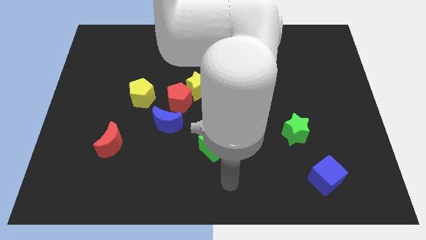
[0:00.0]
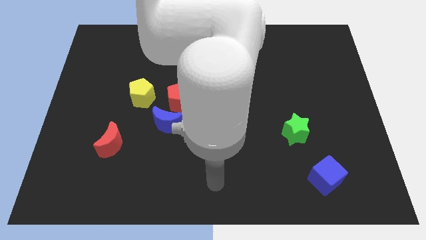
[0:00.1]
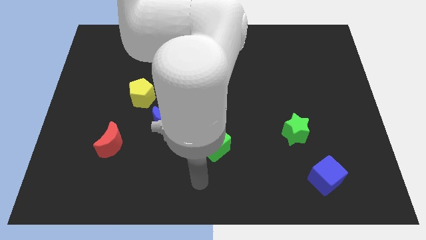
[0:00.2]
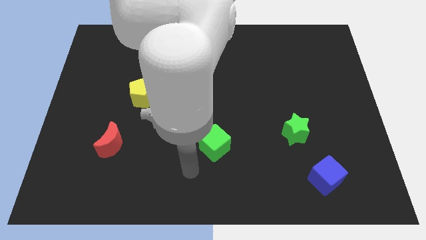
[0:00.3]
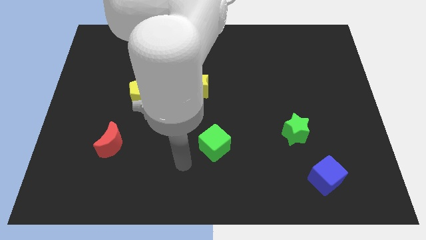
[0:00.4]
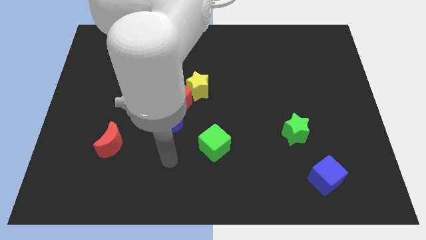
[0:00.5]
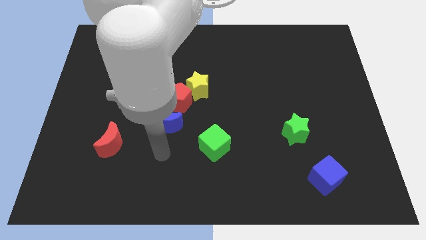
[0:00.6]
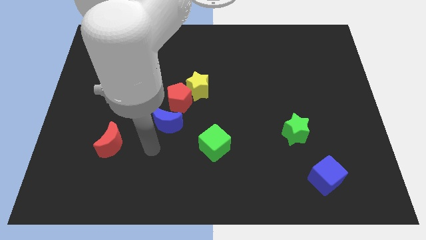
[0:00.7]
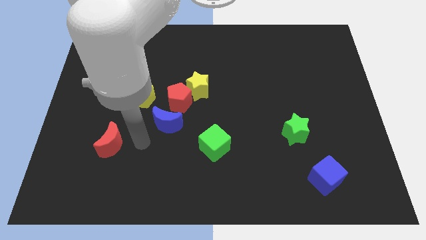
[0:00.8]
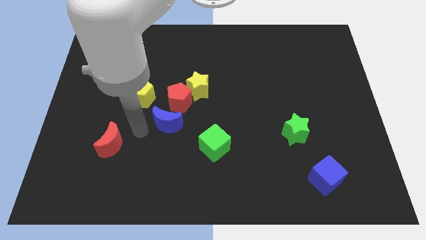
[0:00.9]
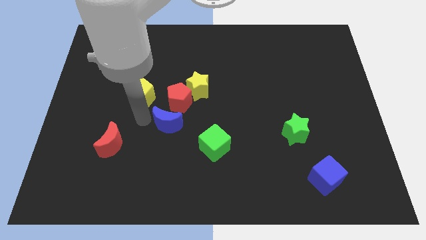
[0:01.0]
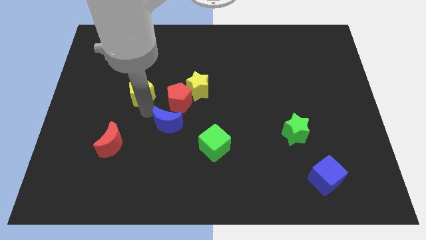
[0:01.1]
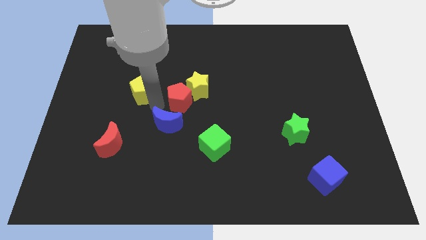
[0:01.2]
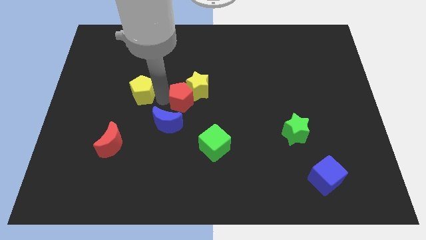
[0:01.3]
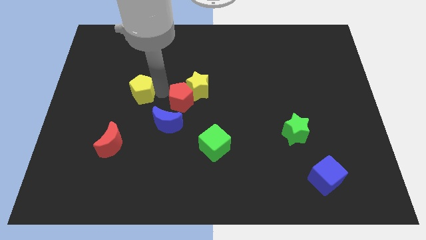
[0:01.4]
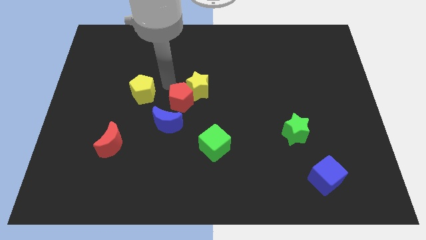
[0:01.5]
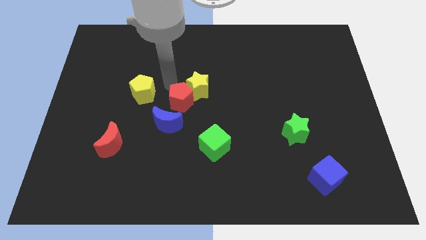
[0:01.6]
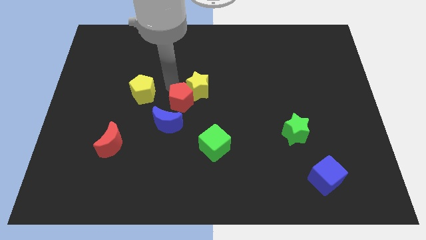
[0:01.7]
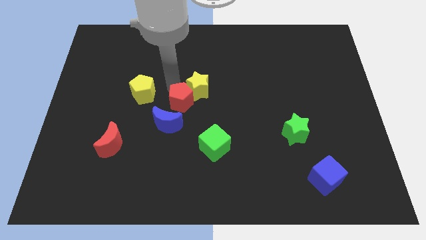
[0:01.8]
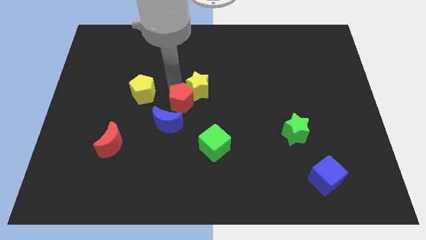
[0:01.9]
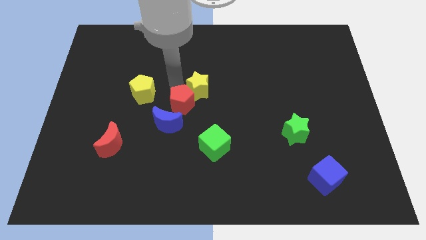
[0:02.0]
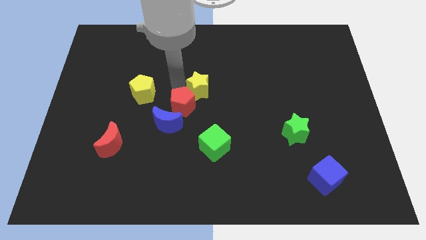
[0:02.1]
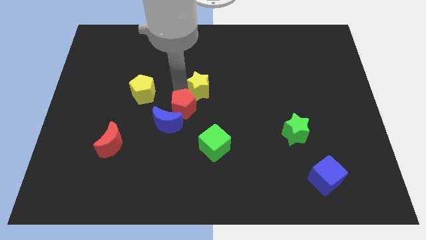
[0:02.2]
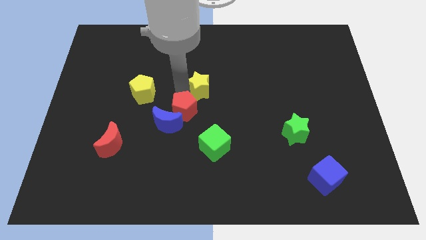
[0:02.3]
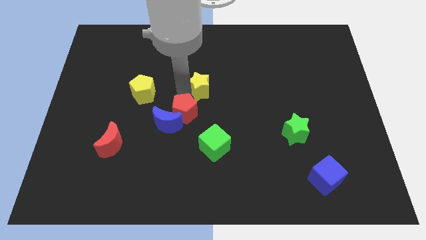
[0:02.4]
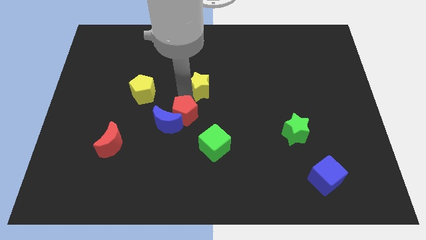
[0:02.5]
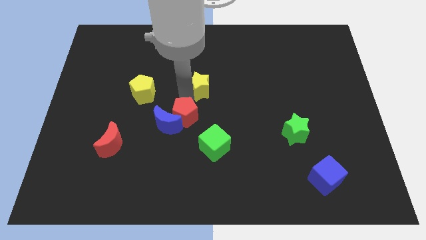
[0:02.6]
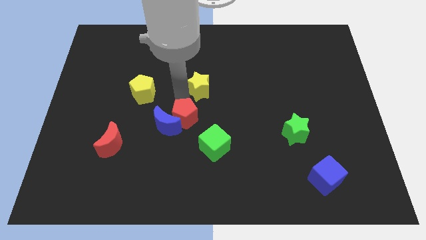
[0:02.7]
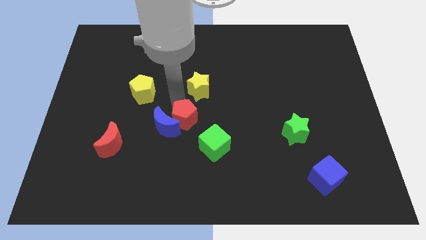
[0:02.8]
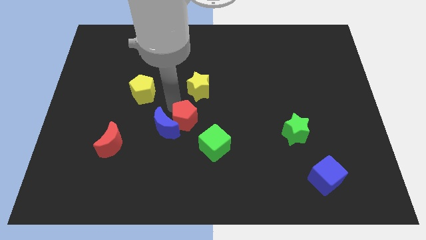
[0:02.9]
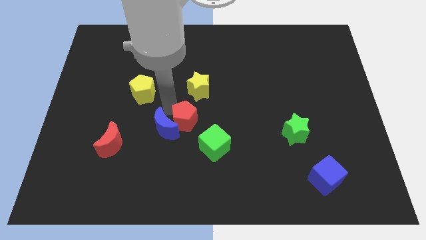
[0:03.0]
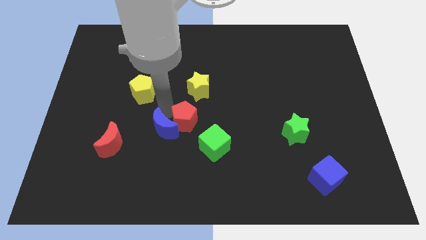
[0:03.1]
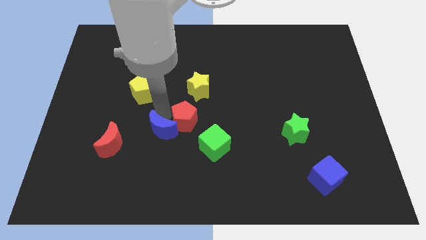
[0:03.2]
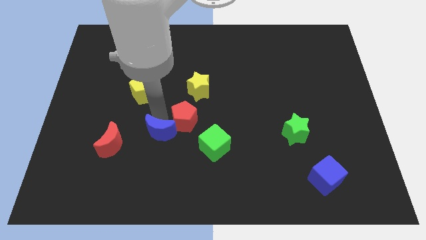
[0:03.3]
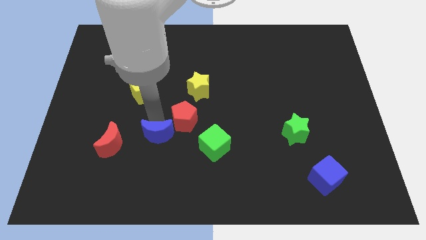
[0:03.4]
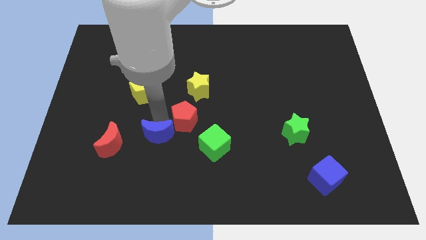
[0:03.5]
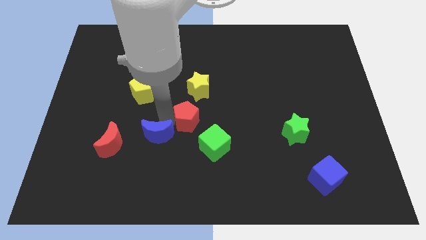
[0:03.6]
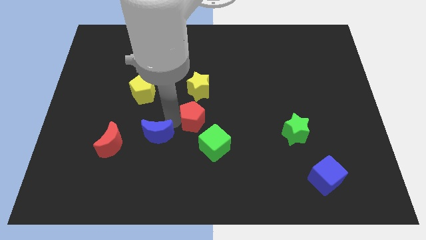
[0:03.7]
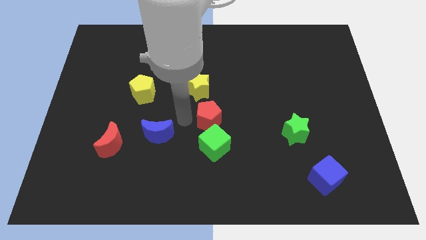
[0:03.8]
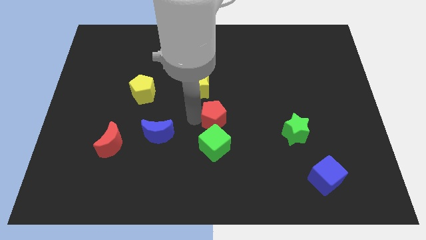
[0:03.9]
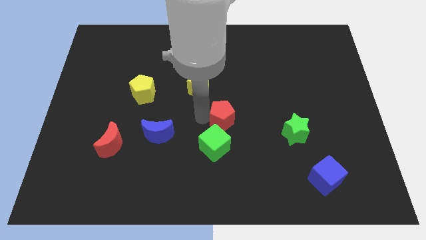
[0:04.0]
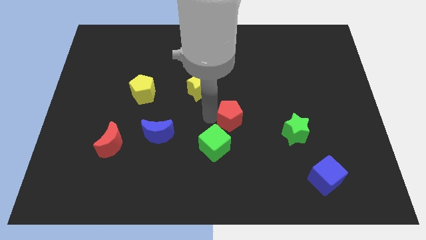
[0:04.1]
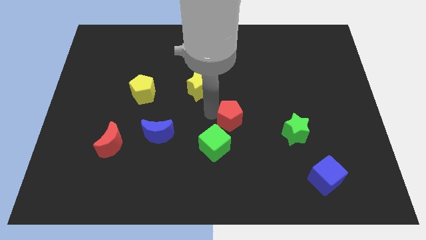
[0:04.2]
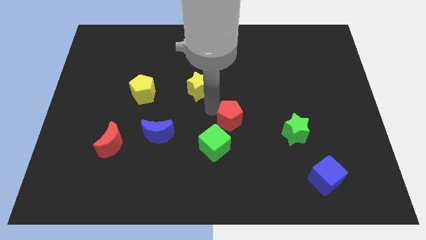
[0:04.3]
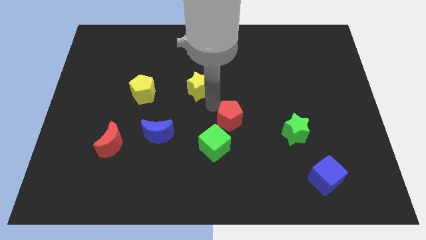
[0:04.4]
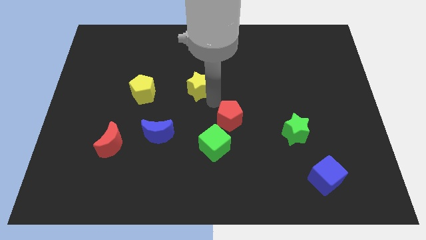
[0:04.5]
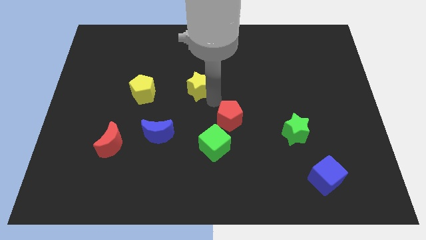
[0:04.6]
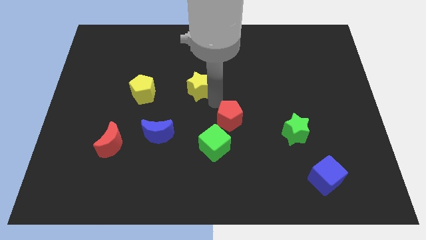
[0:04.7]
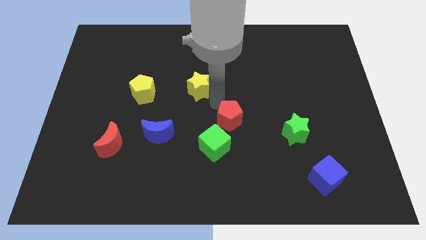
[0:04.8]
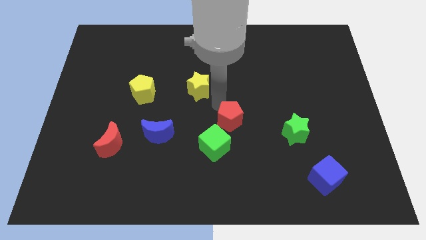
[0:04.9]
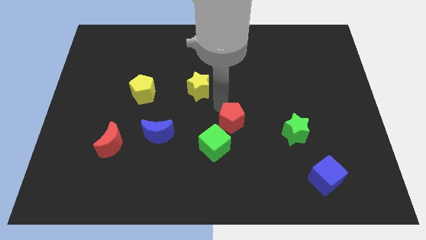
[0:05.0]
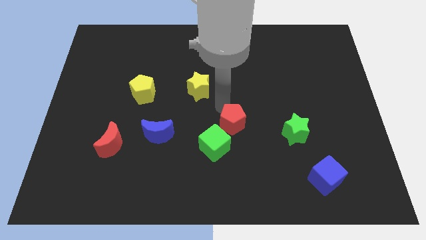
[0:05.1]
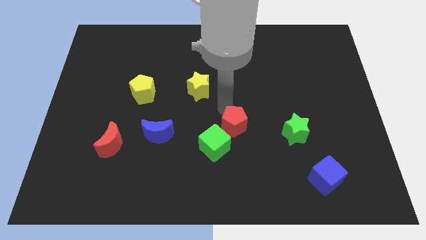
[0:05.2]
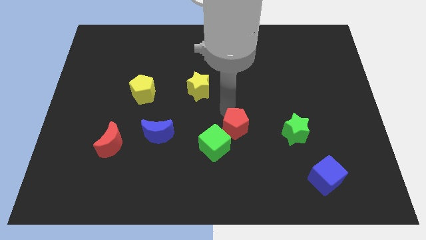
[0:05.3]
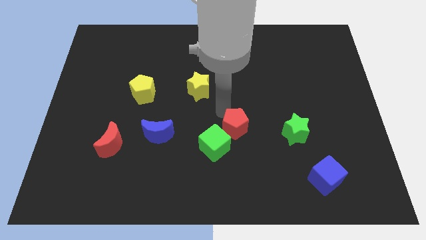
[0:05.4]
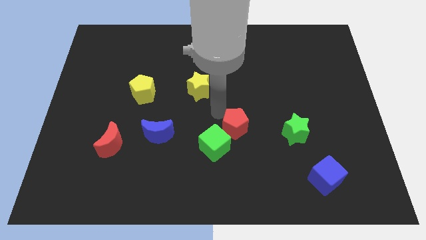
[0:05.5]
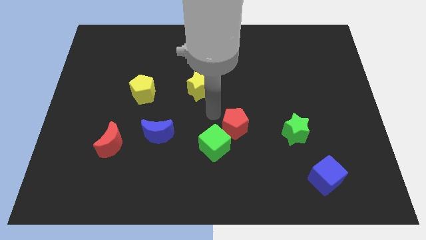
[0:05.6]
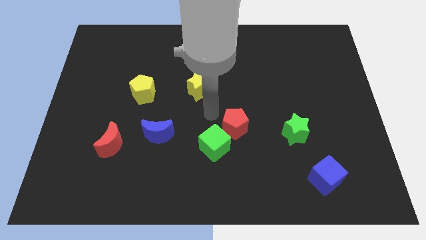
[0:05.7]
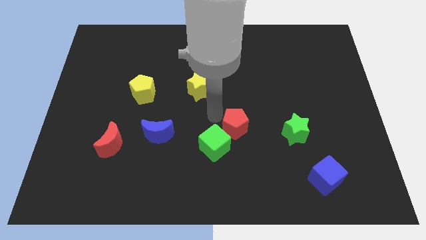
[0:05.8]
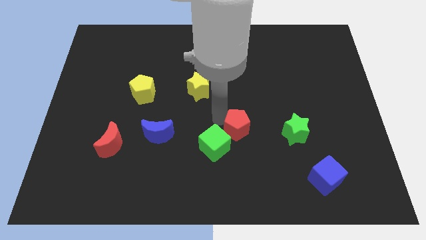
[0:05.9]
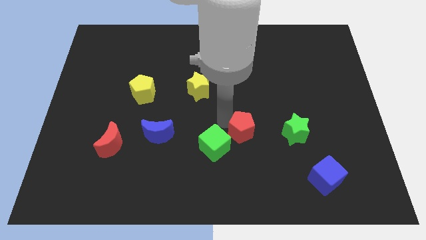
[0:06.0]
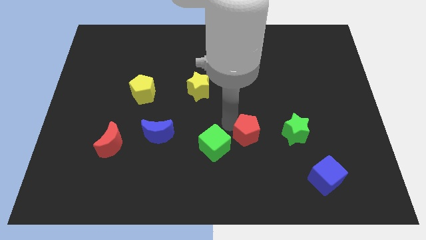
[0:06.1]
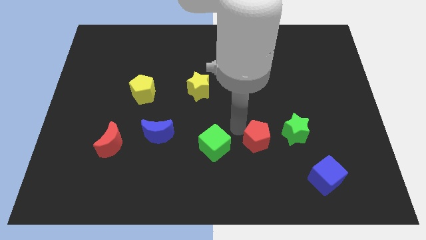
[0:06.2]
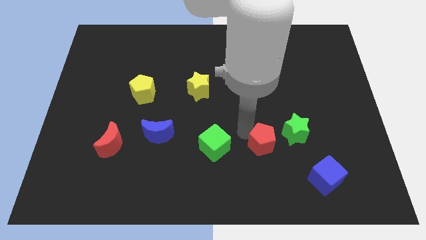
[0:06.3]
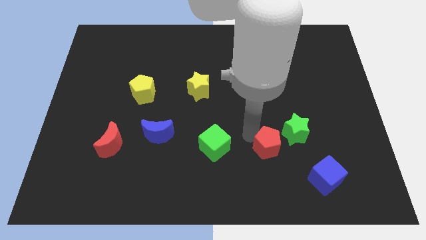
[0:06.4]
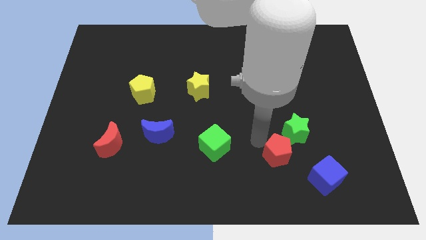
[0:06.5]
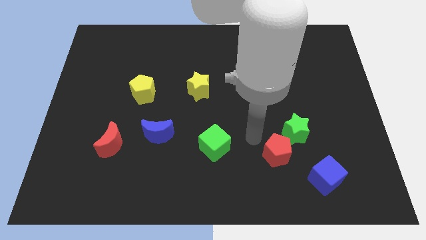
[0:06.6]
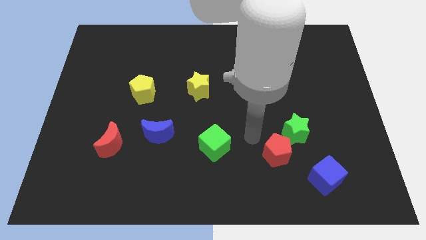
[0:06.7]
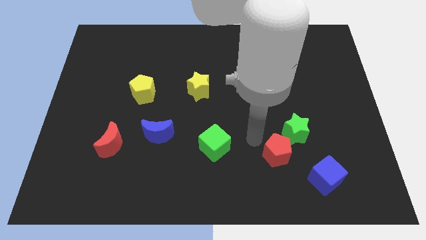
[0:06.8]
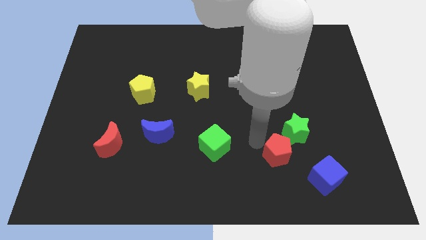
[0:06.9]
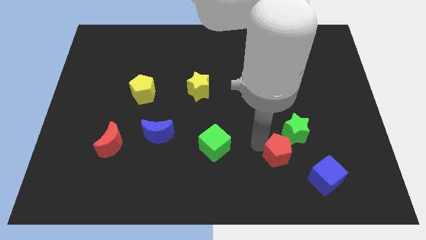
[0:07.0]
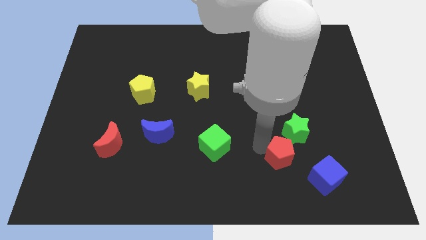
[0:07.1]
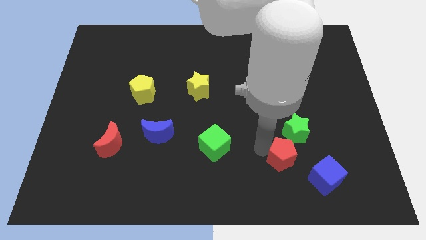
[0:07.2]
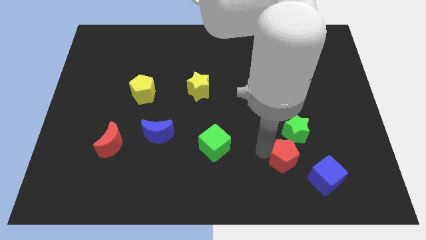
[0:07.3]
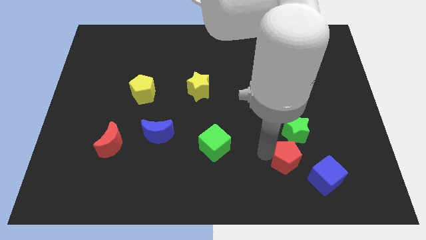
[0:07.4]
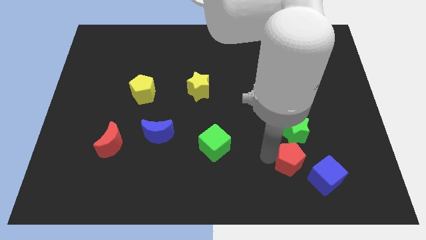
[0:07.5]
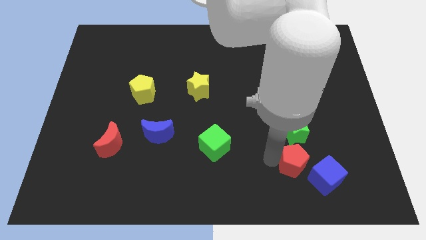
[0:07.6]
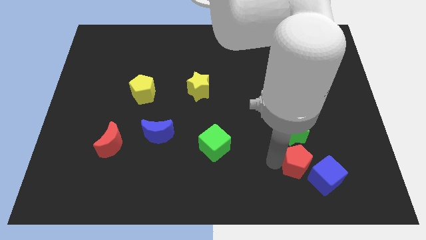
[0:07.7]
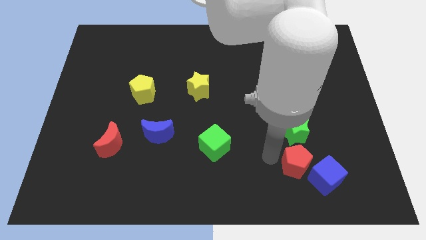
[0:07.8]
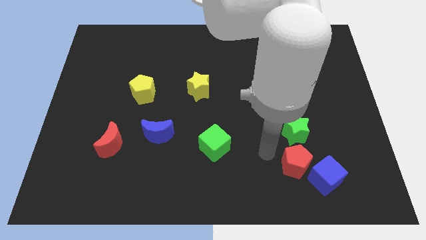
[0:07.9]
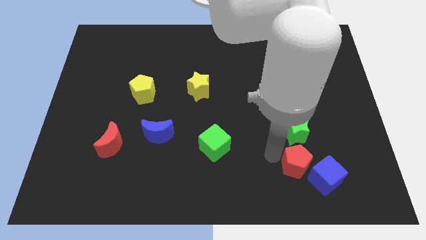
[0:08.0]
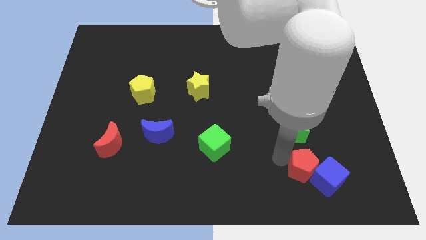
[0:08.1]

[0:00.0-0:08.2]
slide the red pentagon to the blue cube
